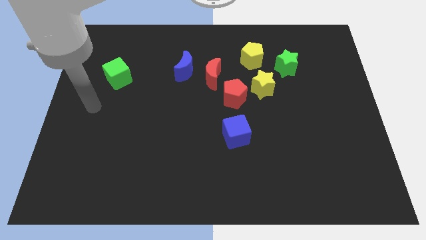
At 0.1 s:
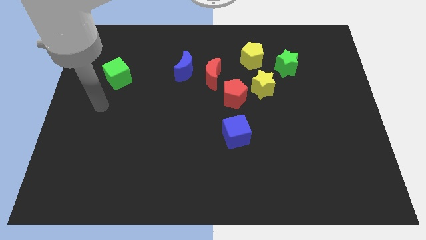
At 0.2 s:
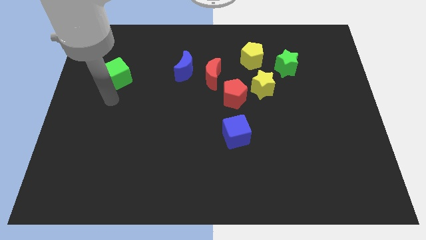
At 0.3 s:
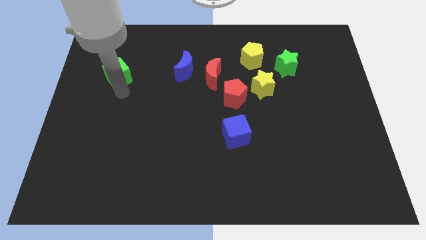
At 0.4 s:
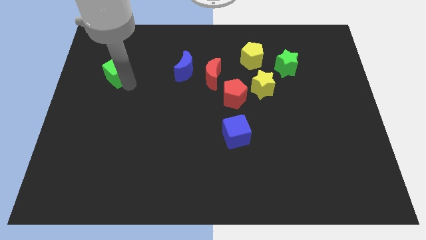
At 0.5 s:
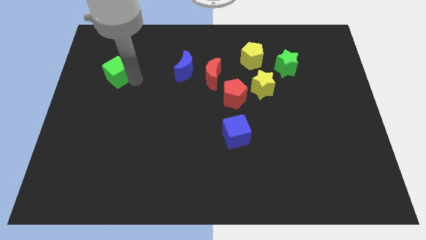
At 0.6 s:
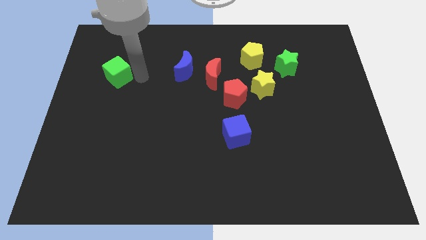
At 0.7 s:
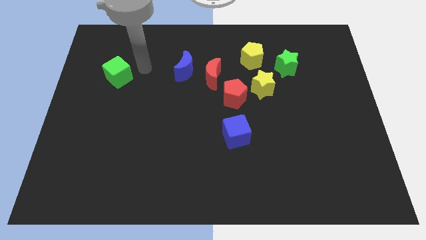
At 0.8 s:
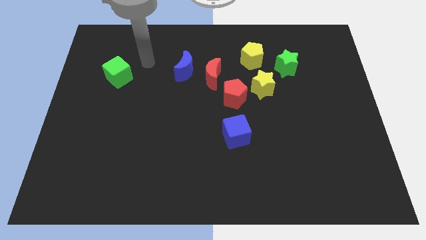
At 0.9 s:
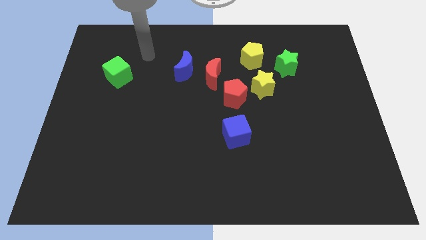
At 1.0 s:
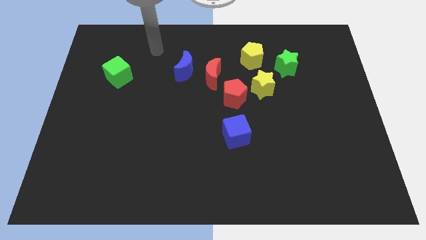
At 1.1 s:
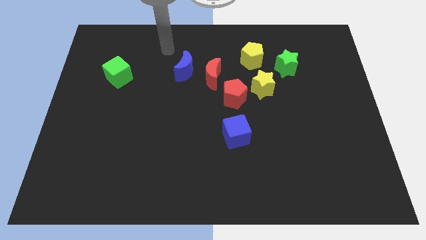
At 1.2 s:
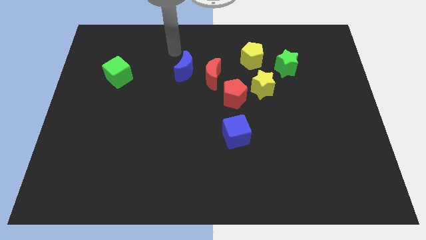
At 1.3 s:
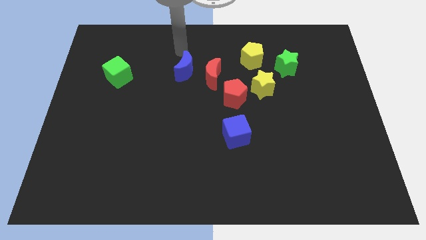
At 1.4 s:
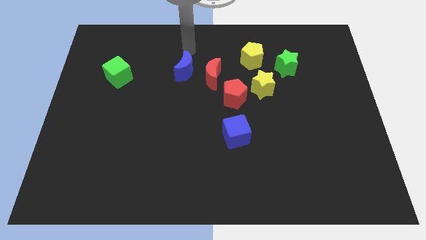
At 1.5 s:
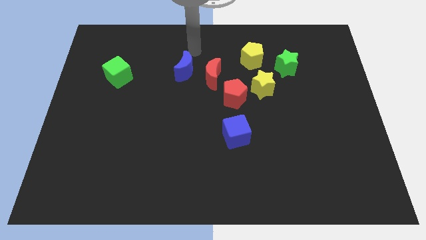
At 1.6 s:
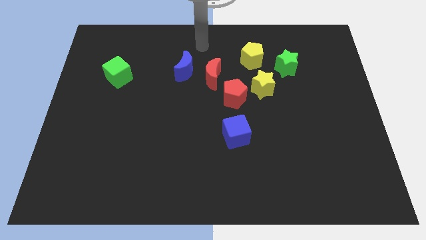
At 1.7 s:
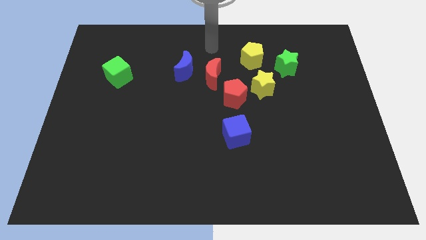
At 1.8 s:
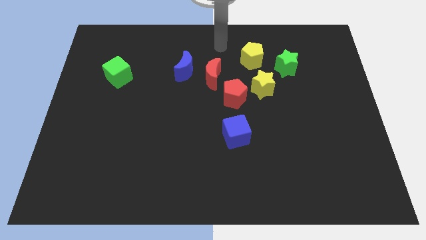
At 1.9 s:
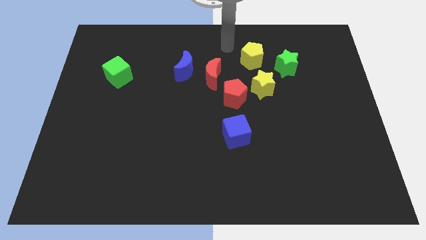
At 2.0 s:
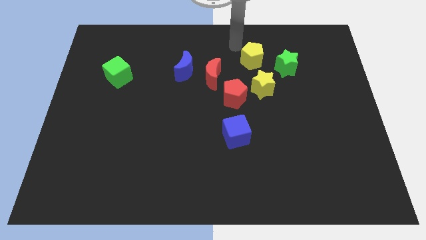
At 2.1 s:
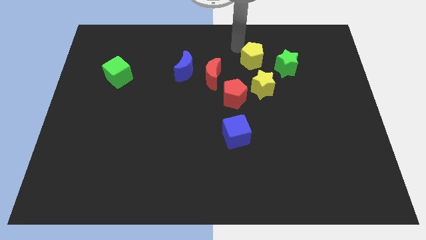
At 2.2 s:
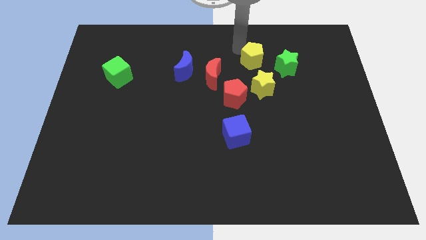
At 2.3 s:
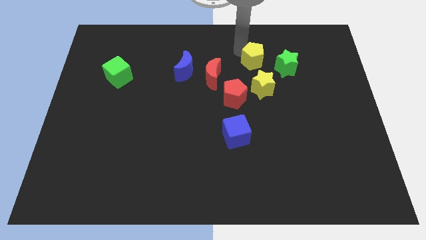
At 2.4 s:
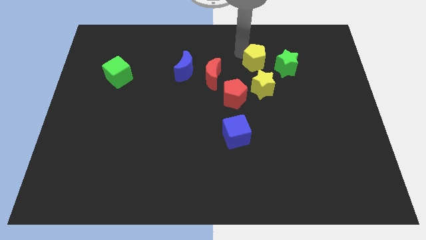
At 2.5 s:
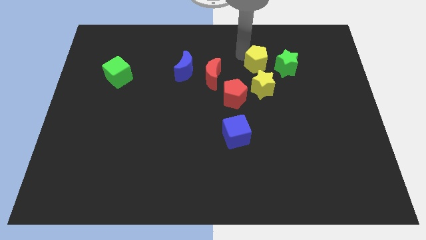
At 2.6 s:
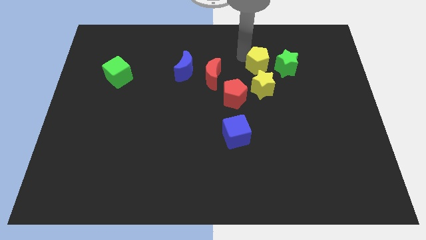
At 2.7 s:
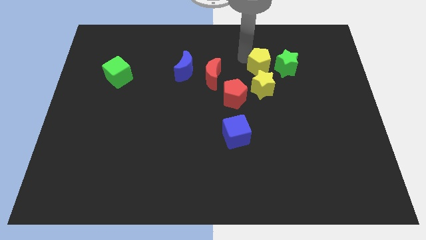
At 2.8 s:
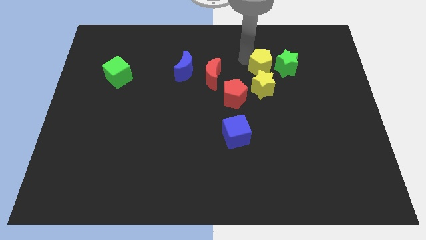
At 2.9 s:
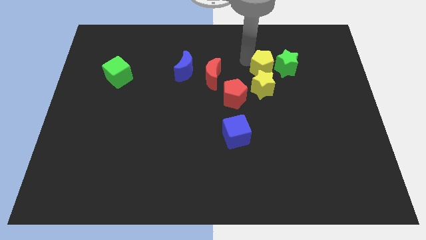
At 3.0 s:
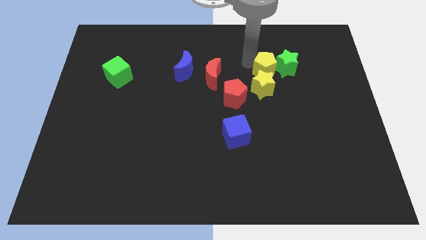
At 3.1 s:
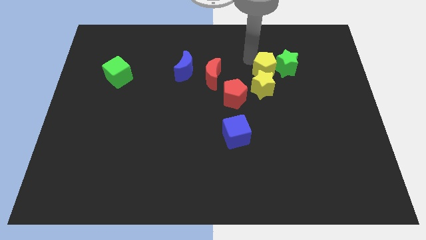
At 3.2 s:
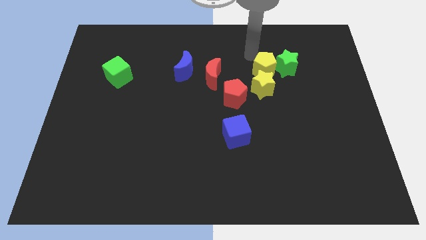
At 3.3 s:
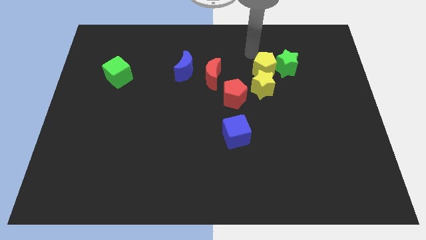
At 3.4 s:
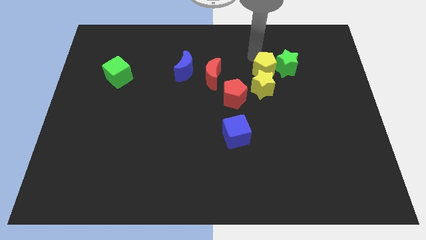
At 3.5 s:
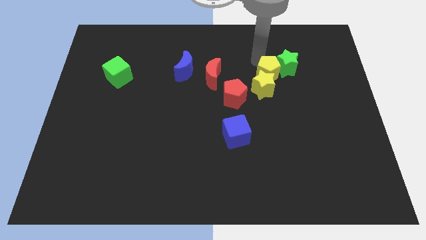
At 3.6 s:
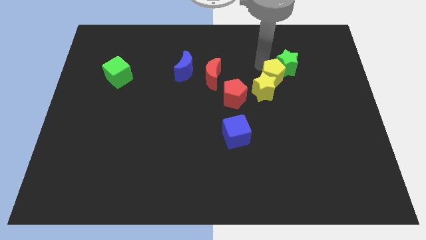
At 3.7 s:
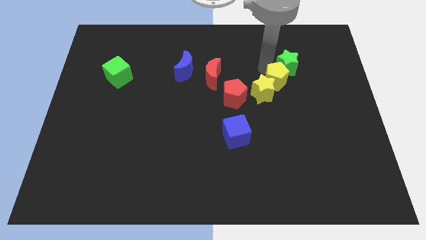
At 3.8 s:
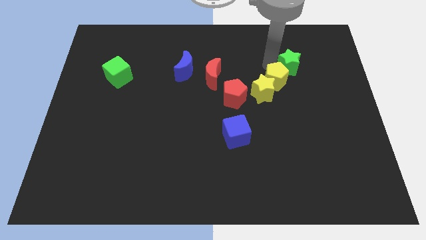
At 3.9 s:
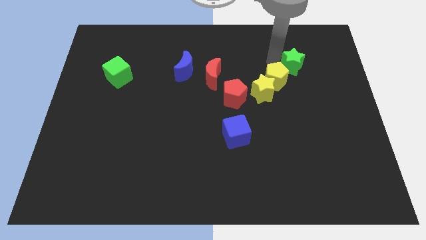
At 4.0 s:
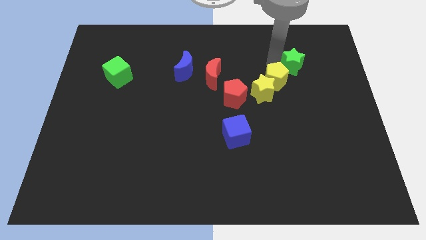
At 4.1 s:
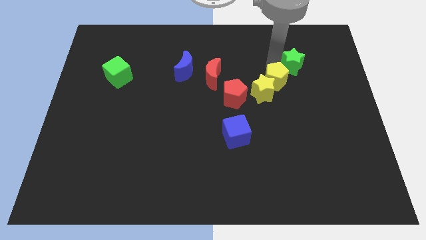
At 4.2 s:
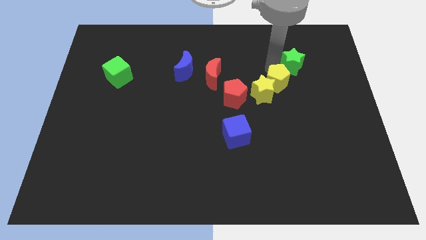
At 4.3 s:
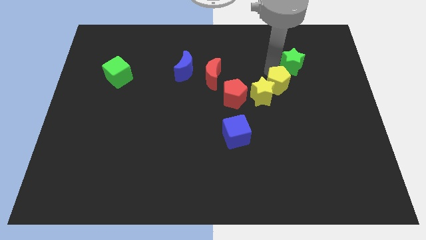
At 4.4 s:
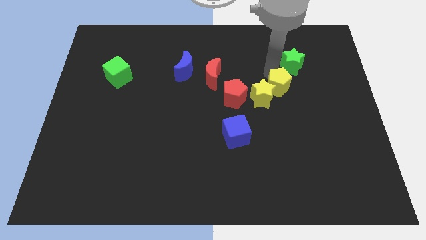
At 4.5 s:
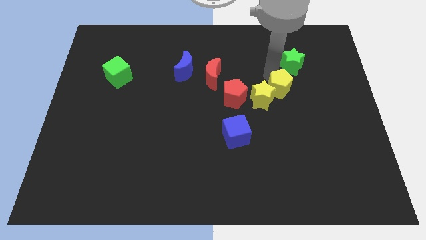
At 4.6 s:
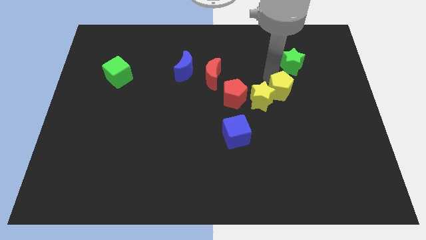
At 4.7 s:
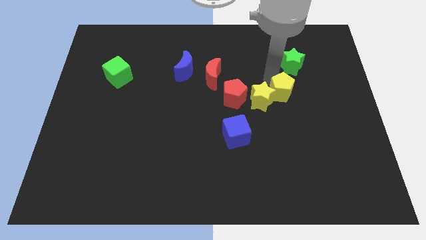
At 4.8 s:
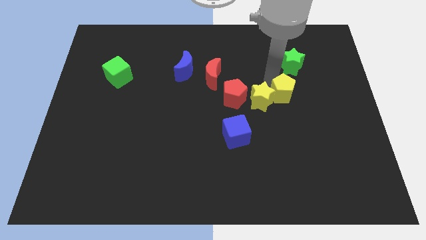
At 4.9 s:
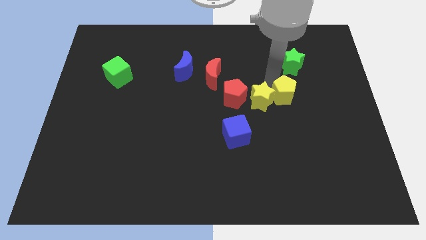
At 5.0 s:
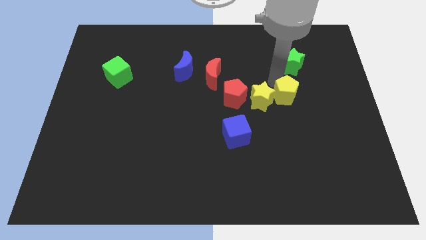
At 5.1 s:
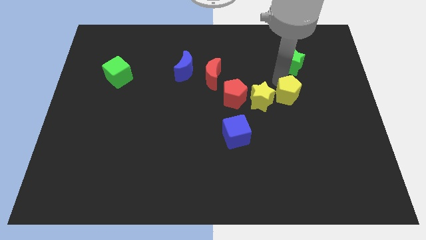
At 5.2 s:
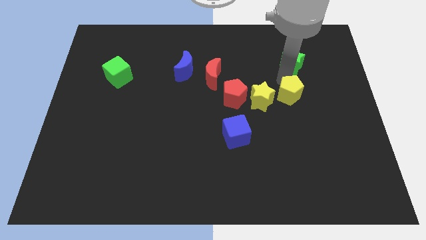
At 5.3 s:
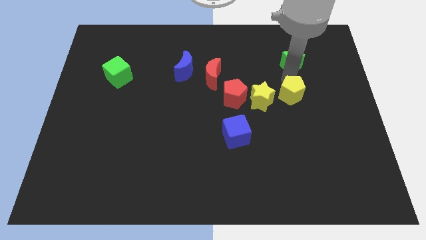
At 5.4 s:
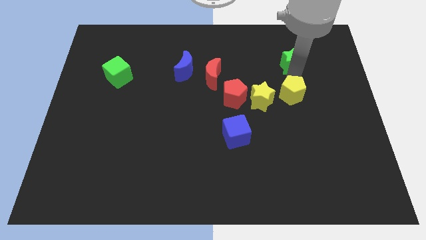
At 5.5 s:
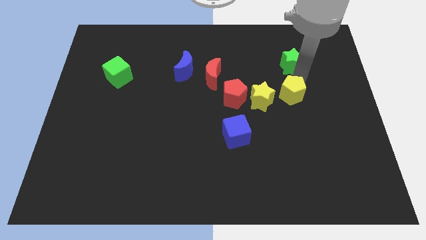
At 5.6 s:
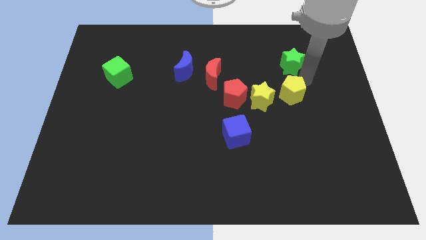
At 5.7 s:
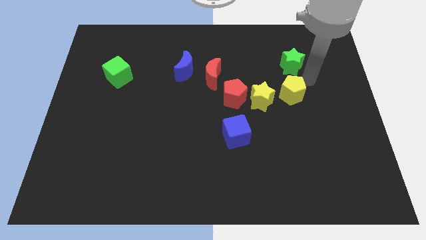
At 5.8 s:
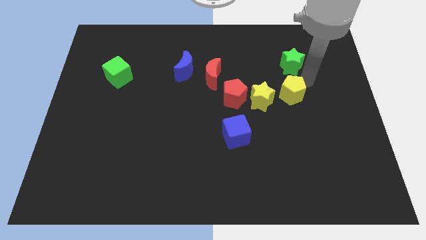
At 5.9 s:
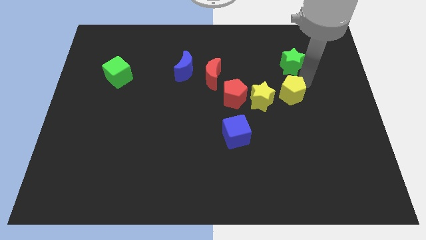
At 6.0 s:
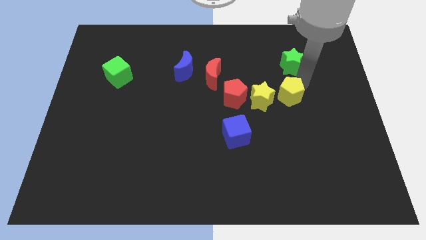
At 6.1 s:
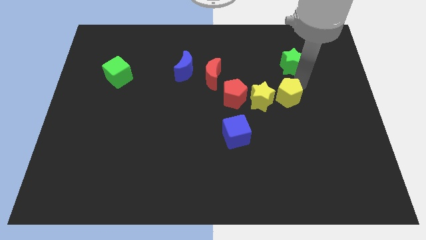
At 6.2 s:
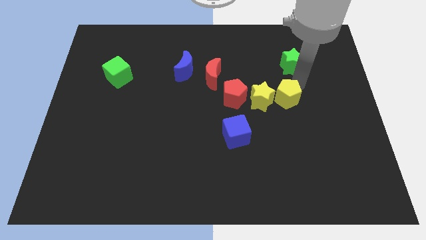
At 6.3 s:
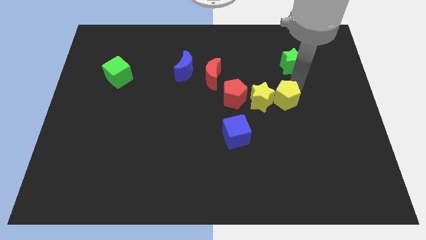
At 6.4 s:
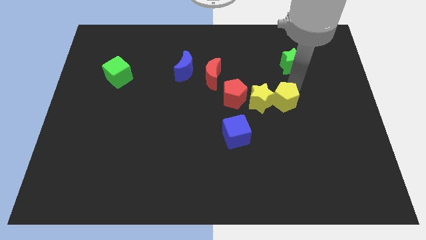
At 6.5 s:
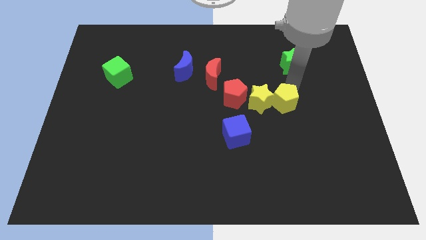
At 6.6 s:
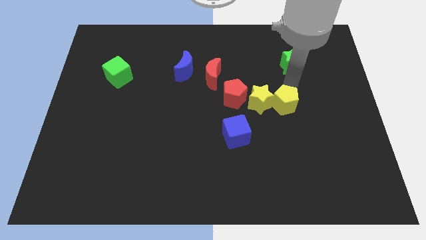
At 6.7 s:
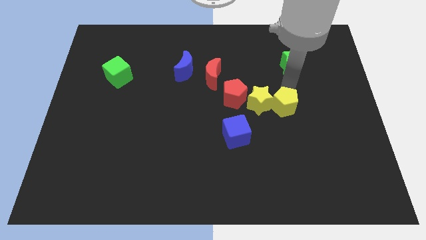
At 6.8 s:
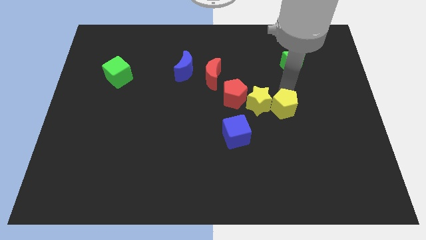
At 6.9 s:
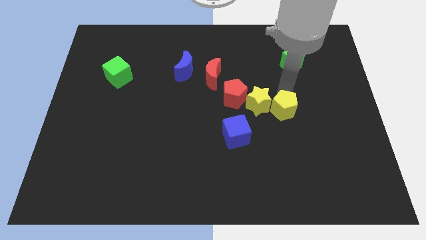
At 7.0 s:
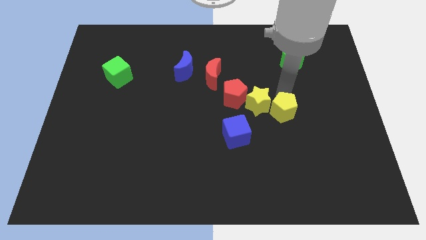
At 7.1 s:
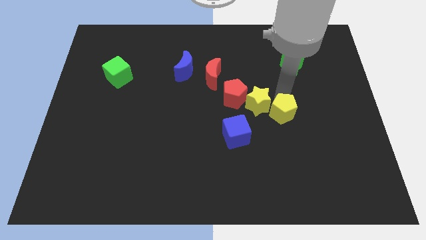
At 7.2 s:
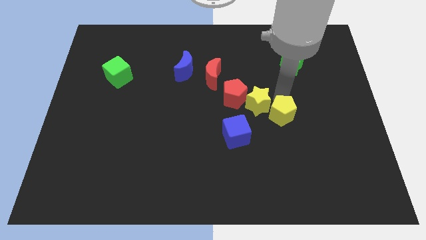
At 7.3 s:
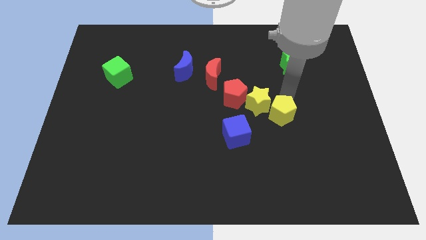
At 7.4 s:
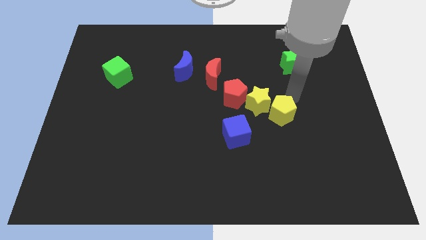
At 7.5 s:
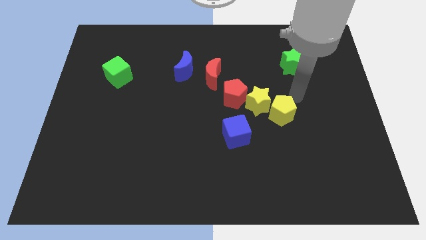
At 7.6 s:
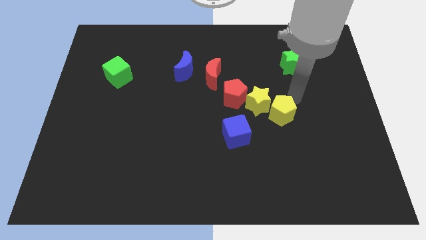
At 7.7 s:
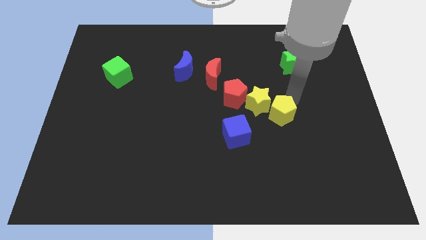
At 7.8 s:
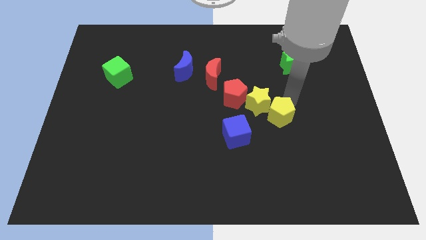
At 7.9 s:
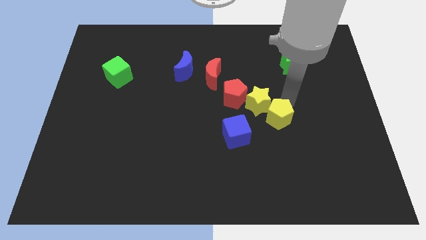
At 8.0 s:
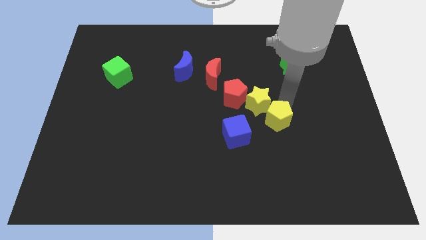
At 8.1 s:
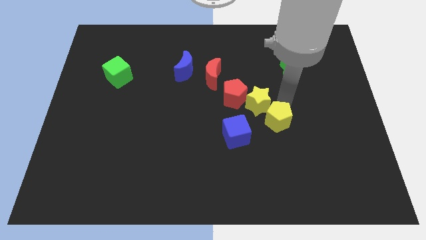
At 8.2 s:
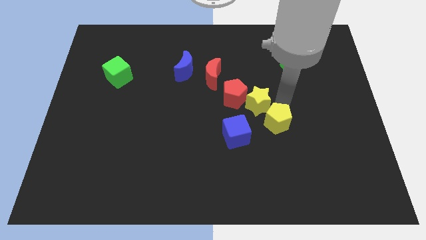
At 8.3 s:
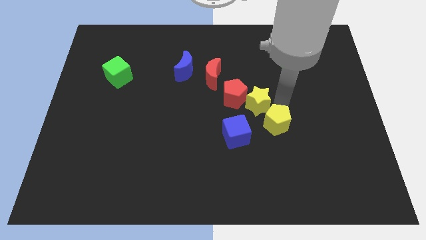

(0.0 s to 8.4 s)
slide the yellow pentagon downwards
